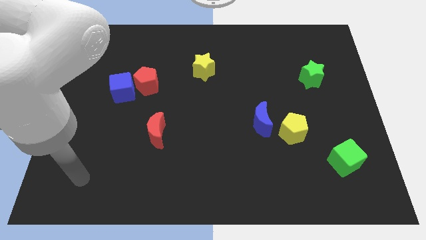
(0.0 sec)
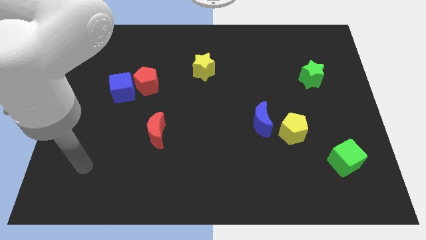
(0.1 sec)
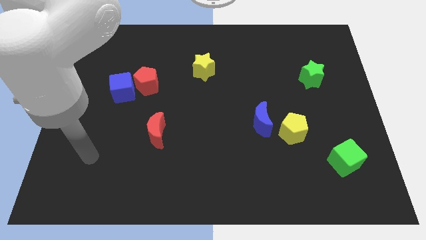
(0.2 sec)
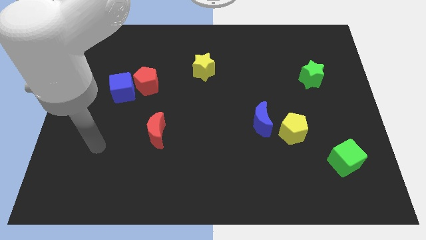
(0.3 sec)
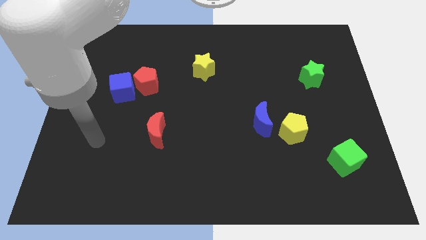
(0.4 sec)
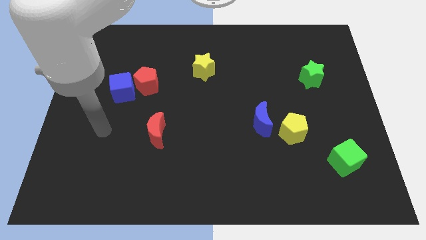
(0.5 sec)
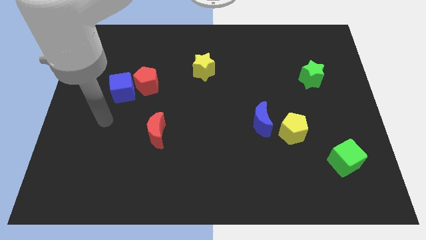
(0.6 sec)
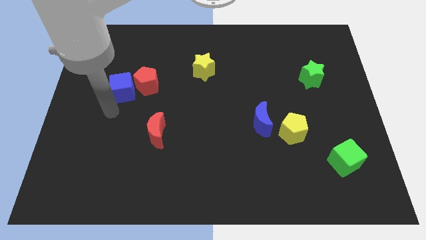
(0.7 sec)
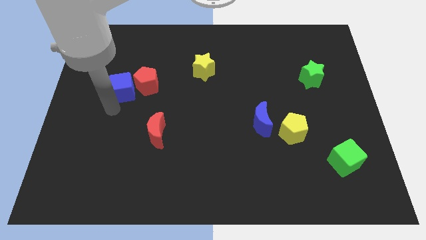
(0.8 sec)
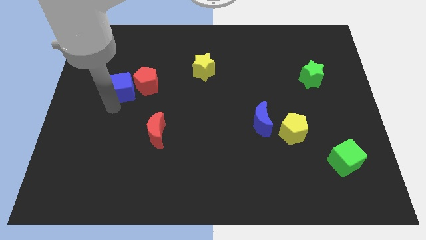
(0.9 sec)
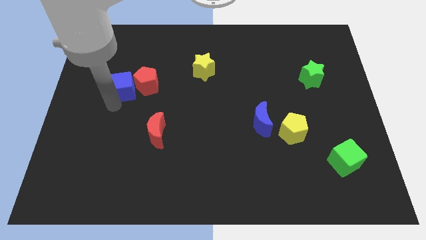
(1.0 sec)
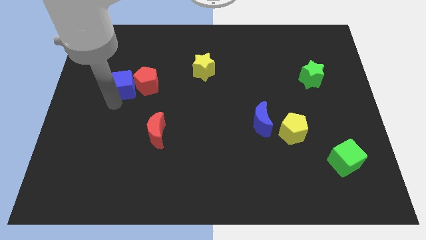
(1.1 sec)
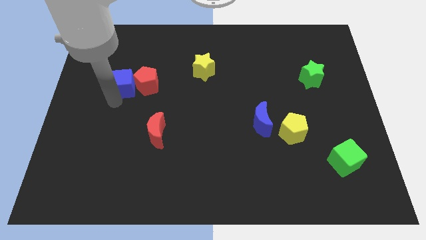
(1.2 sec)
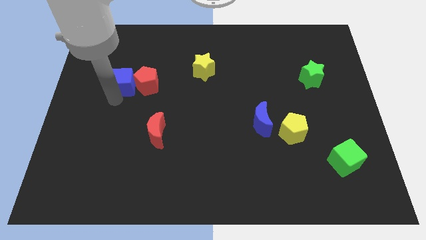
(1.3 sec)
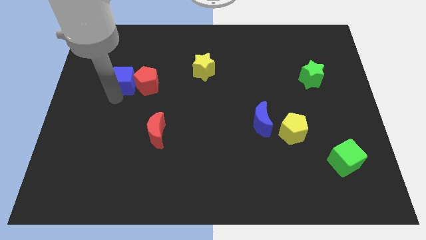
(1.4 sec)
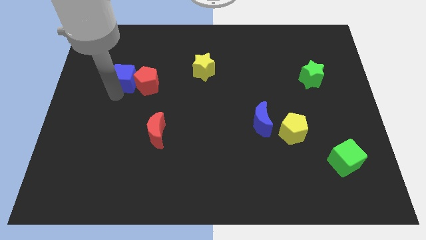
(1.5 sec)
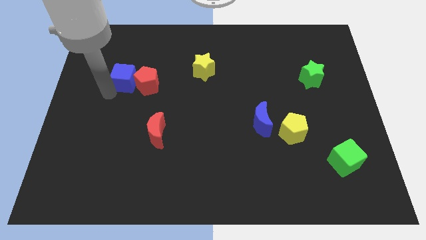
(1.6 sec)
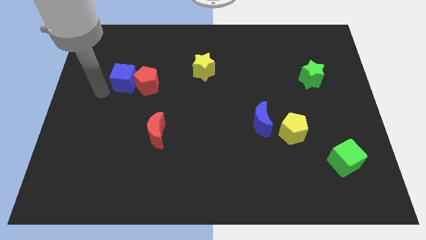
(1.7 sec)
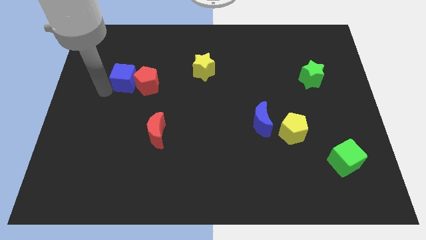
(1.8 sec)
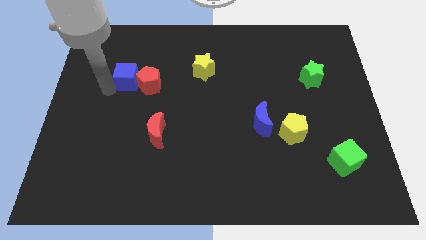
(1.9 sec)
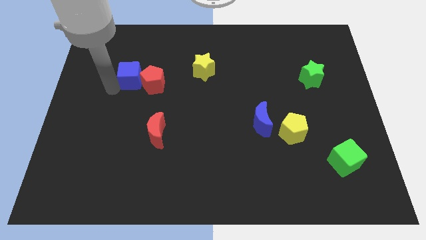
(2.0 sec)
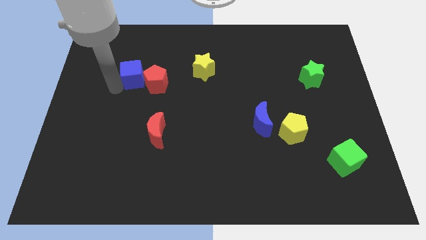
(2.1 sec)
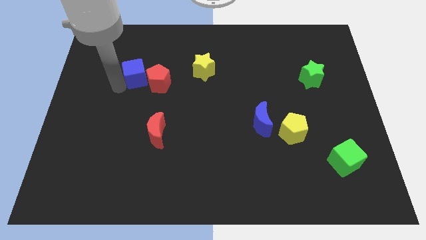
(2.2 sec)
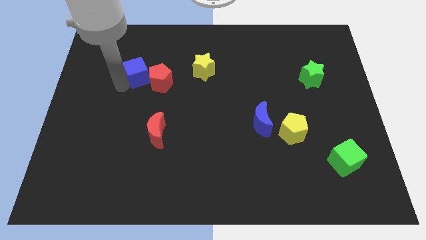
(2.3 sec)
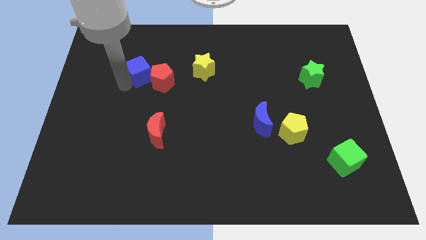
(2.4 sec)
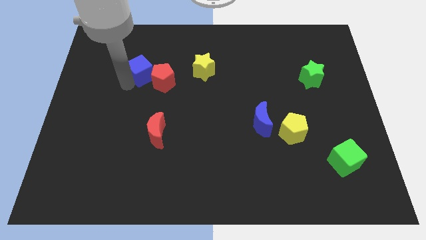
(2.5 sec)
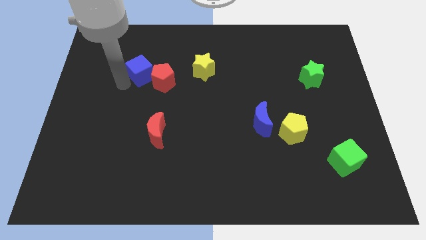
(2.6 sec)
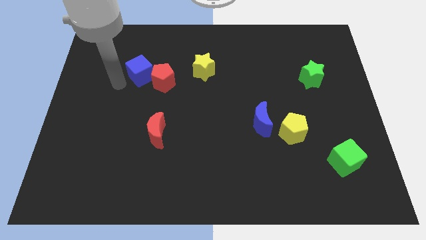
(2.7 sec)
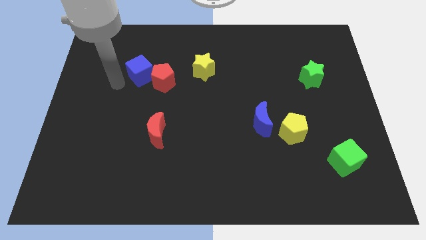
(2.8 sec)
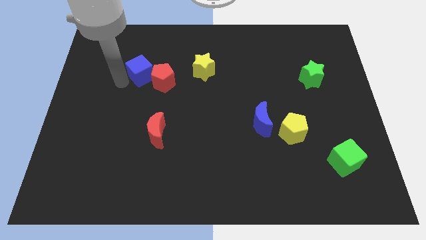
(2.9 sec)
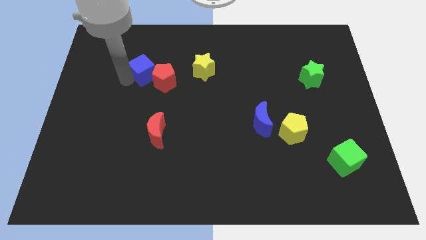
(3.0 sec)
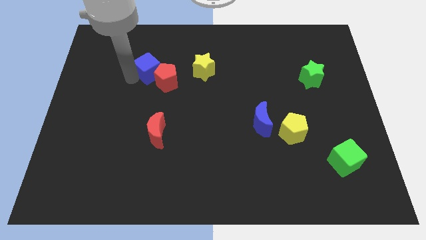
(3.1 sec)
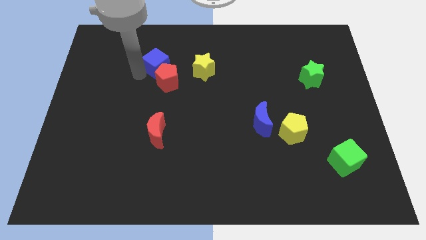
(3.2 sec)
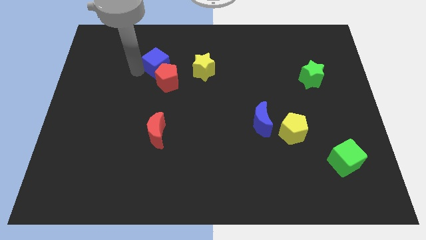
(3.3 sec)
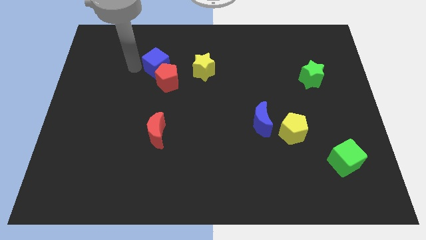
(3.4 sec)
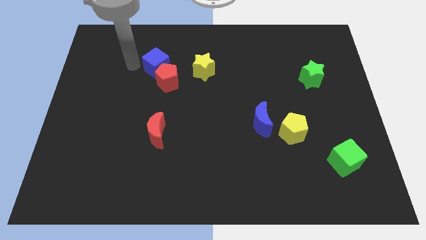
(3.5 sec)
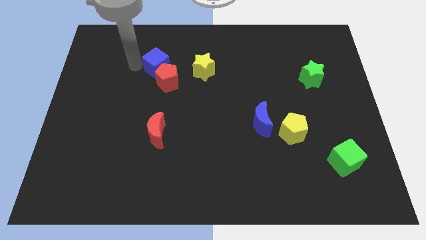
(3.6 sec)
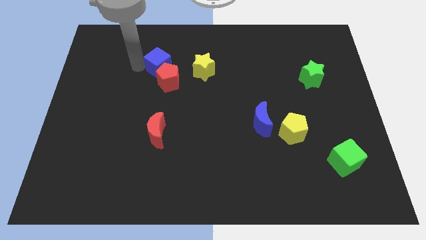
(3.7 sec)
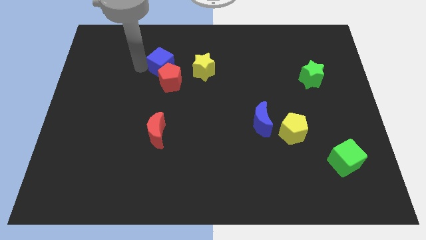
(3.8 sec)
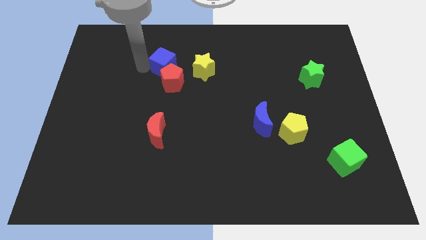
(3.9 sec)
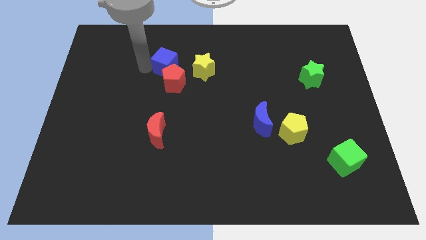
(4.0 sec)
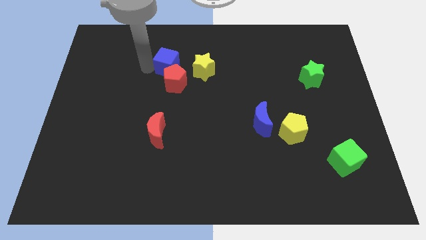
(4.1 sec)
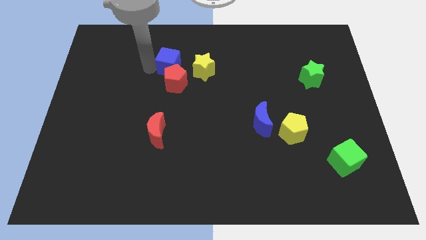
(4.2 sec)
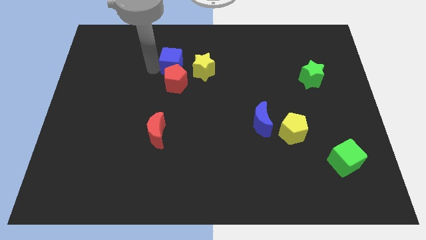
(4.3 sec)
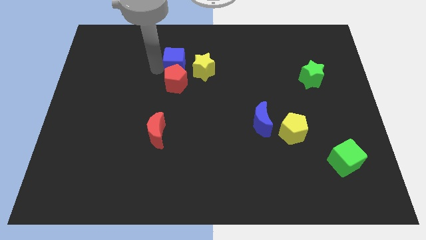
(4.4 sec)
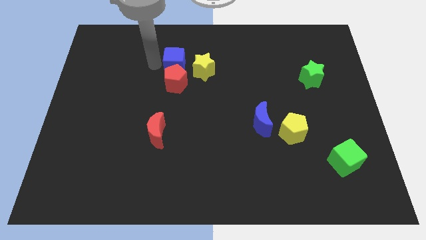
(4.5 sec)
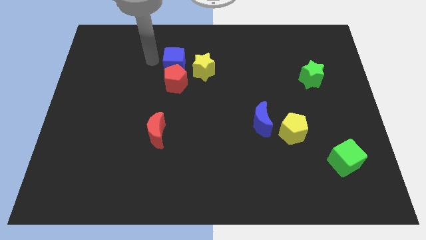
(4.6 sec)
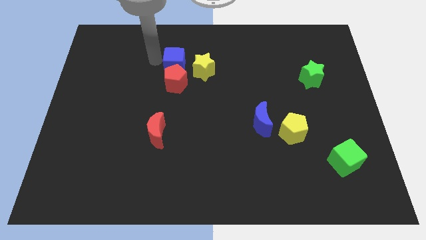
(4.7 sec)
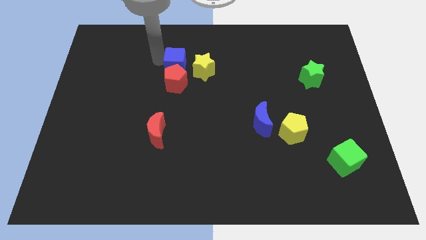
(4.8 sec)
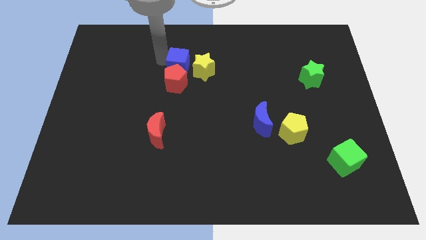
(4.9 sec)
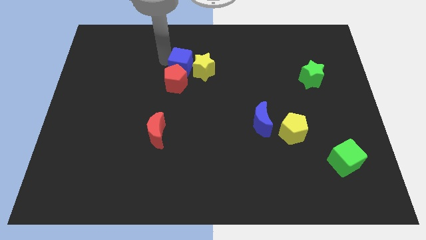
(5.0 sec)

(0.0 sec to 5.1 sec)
push the blue cube next to the yellow star

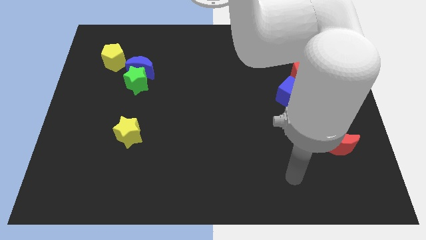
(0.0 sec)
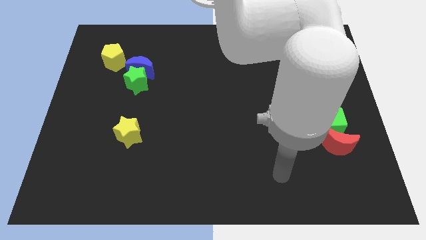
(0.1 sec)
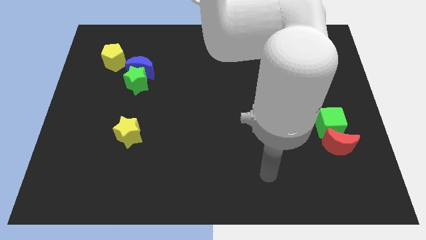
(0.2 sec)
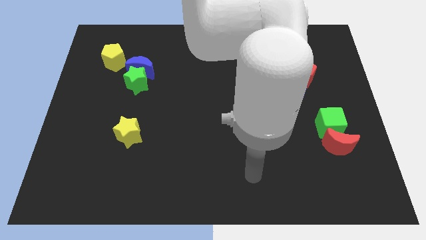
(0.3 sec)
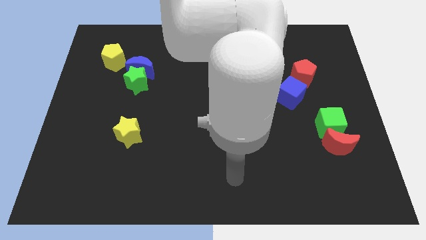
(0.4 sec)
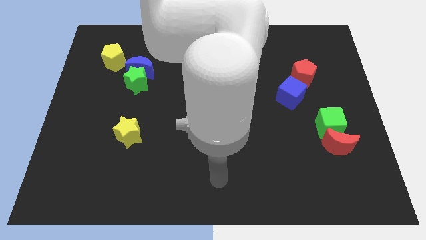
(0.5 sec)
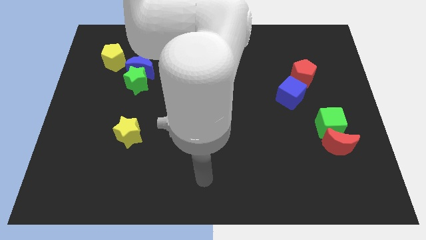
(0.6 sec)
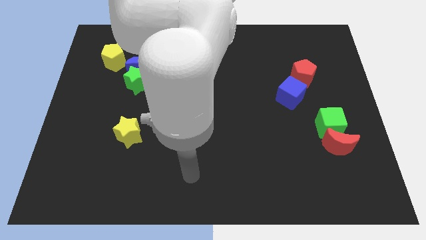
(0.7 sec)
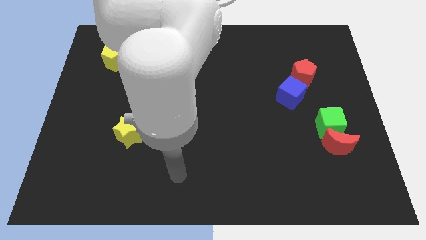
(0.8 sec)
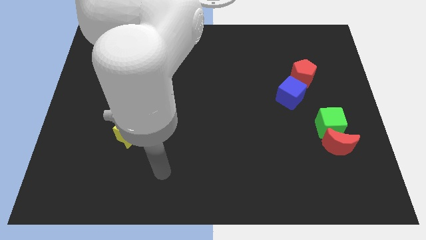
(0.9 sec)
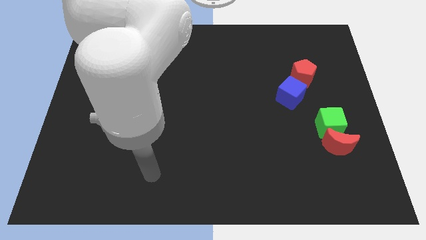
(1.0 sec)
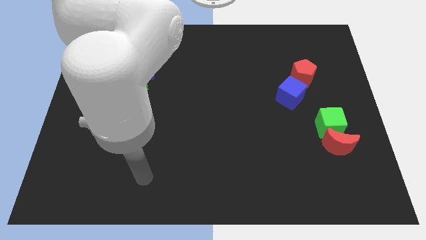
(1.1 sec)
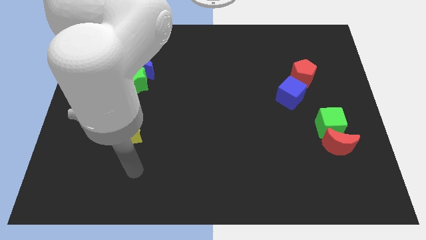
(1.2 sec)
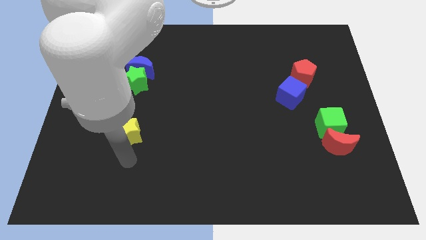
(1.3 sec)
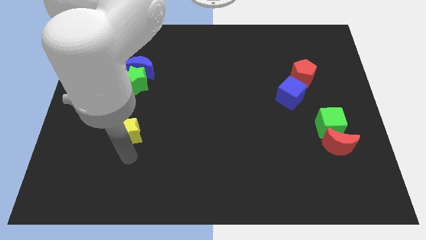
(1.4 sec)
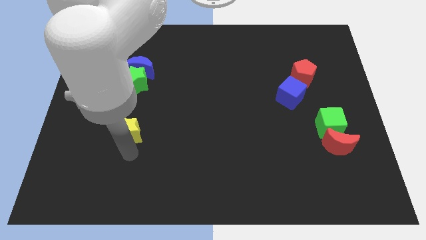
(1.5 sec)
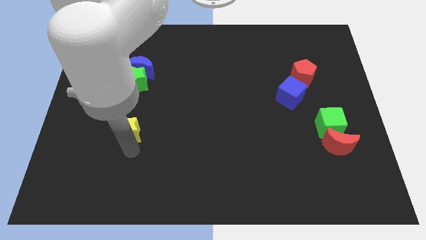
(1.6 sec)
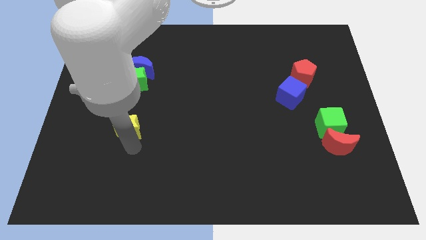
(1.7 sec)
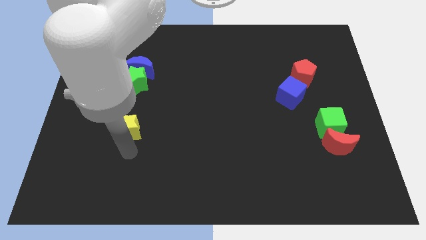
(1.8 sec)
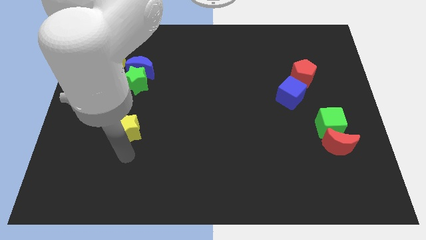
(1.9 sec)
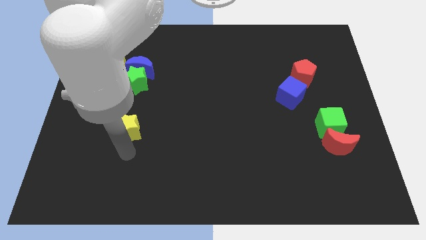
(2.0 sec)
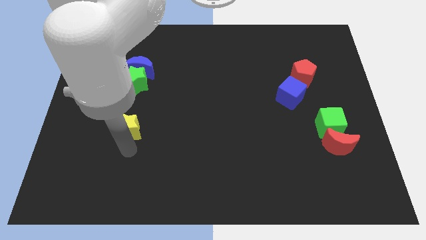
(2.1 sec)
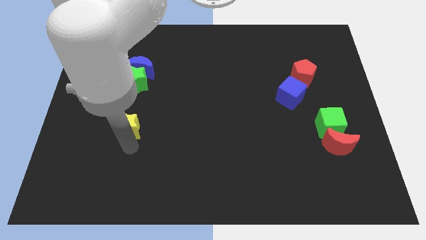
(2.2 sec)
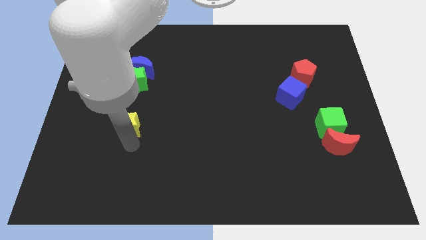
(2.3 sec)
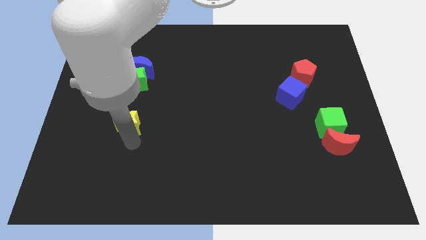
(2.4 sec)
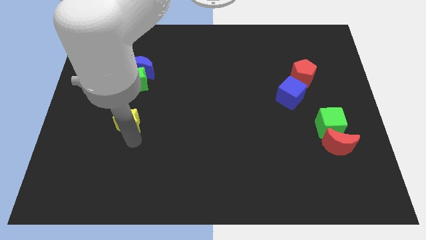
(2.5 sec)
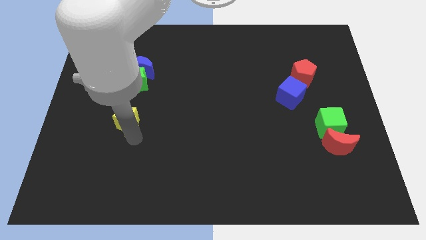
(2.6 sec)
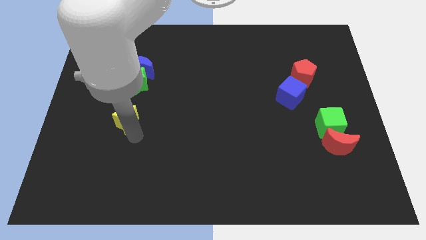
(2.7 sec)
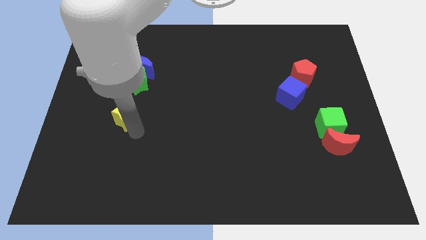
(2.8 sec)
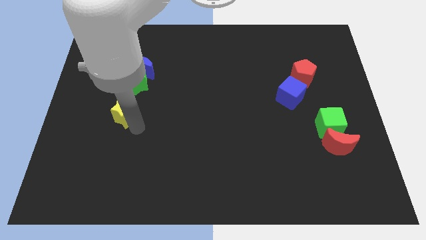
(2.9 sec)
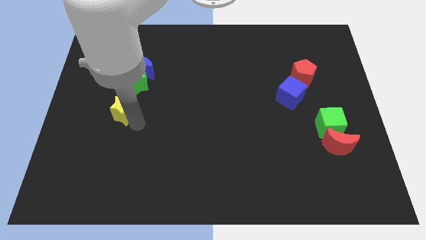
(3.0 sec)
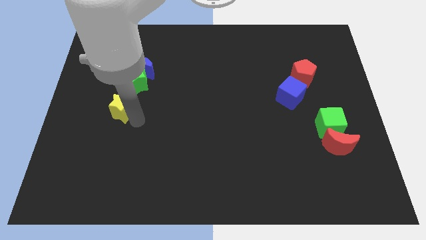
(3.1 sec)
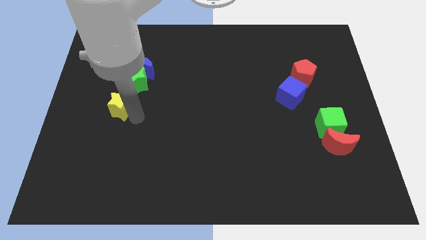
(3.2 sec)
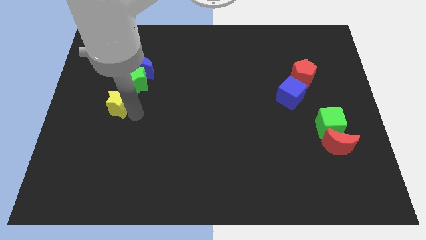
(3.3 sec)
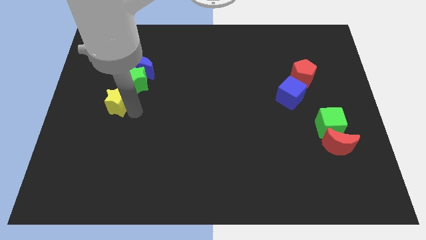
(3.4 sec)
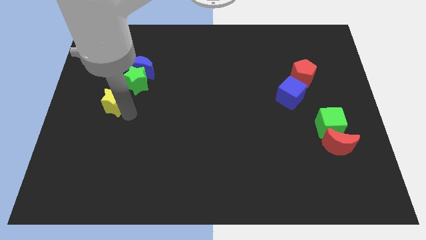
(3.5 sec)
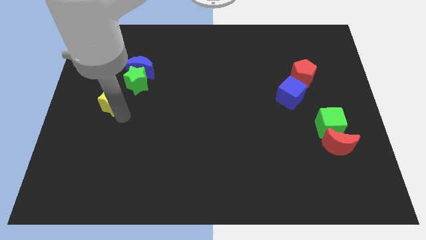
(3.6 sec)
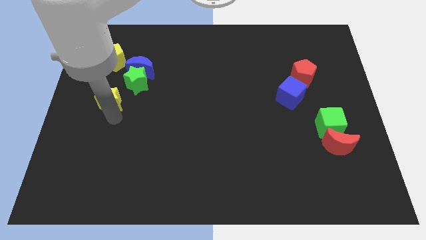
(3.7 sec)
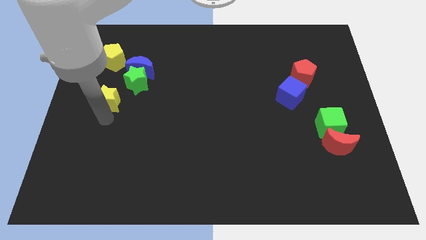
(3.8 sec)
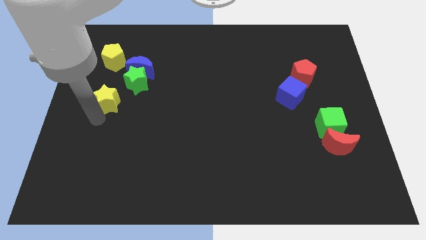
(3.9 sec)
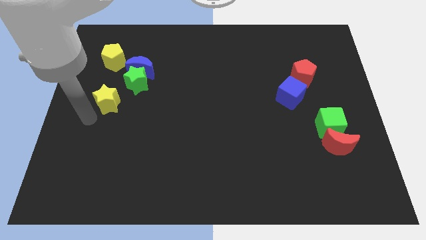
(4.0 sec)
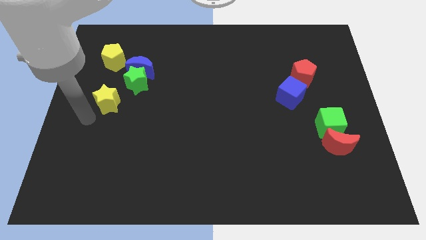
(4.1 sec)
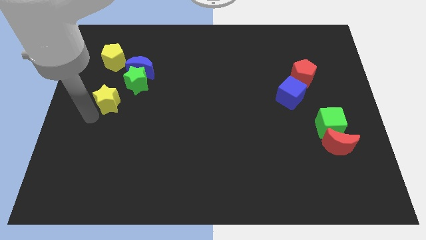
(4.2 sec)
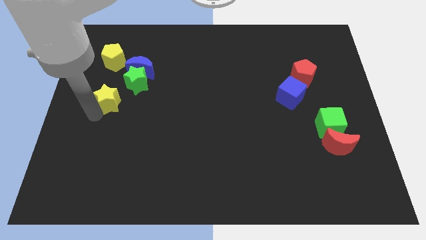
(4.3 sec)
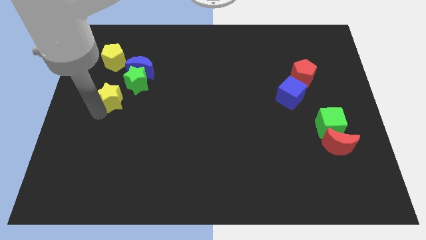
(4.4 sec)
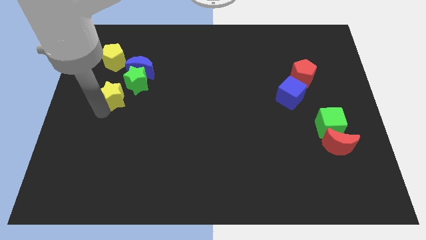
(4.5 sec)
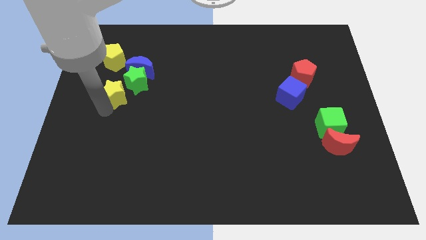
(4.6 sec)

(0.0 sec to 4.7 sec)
slide the yellow star towards the green star
